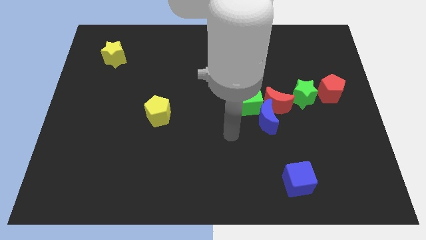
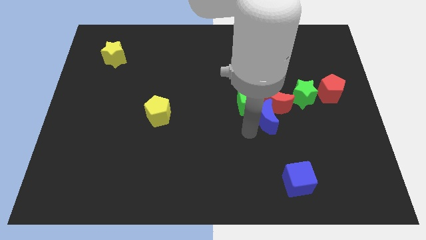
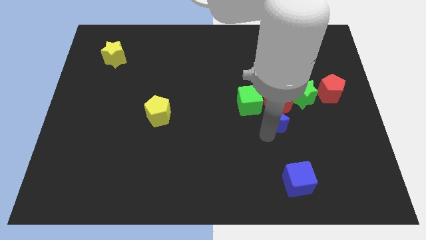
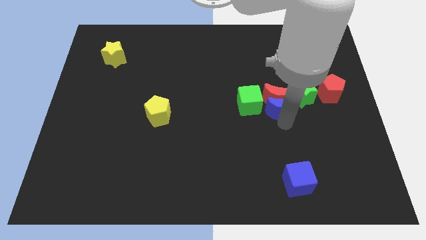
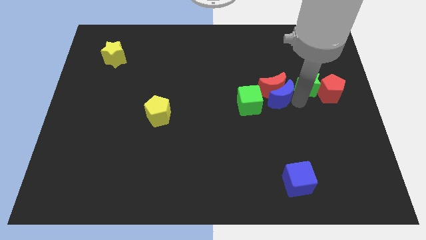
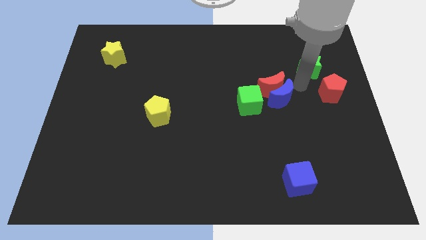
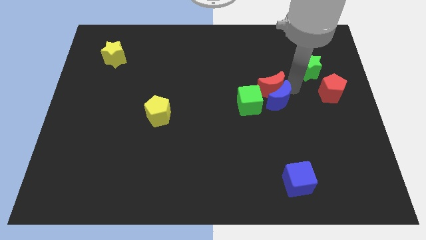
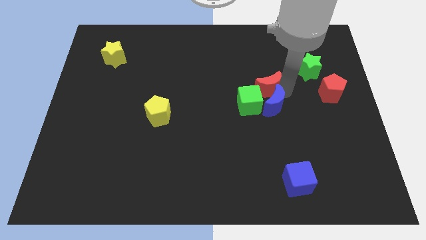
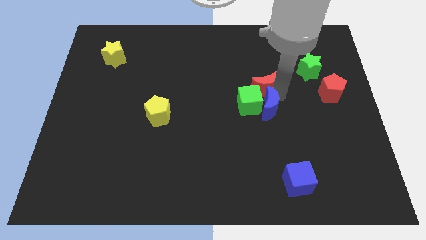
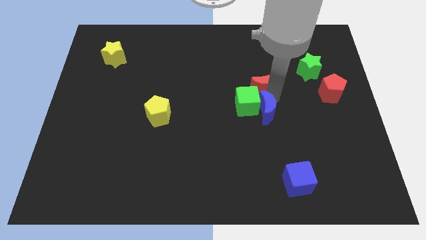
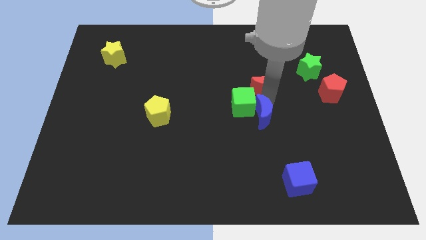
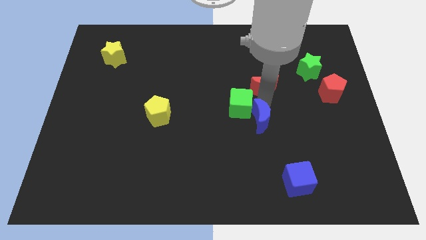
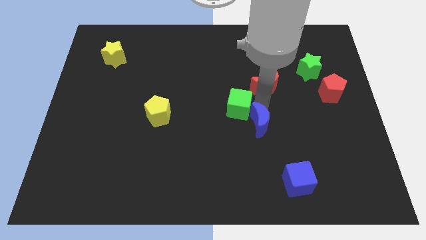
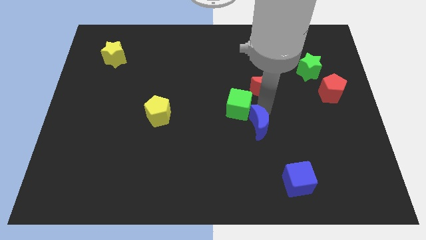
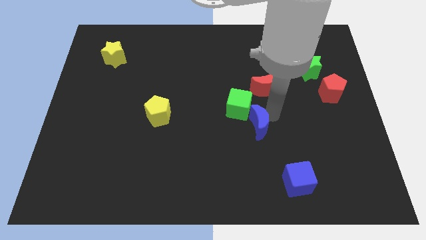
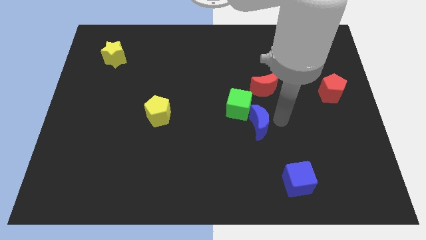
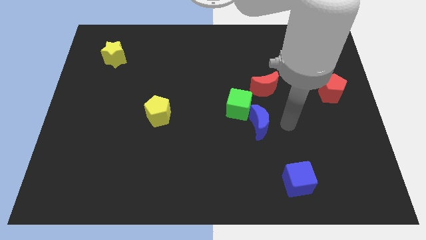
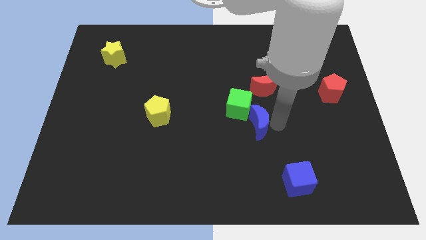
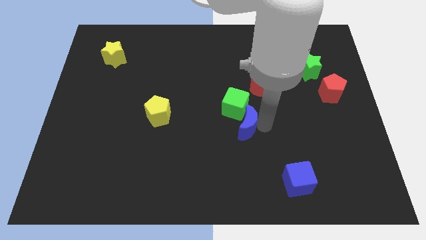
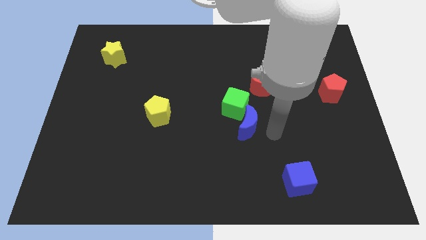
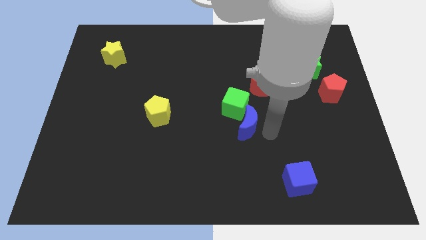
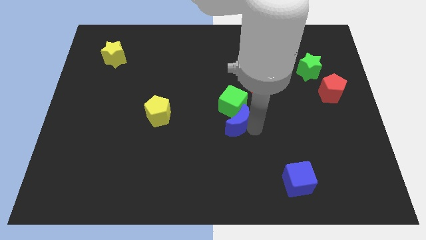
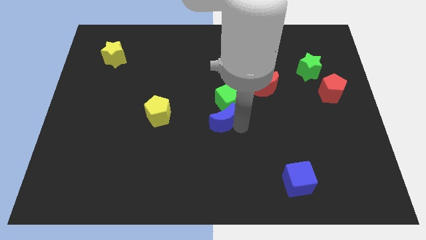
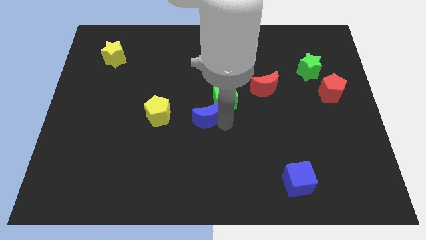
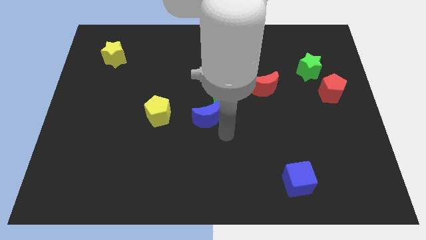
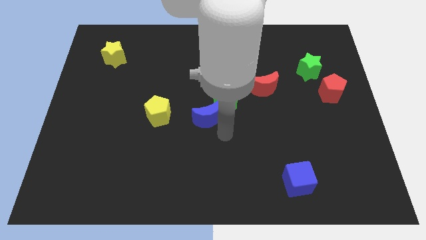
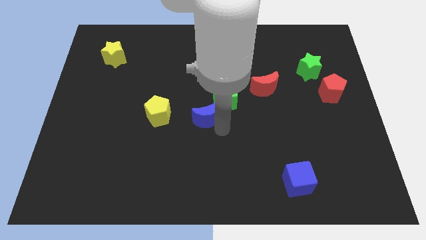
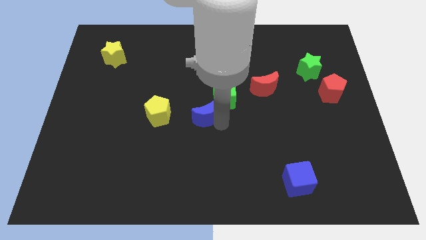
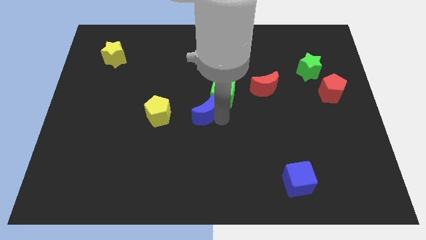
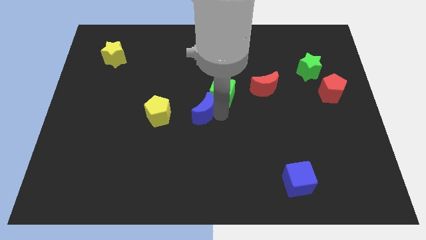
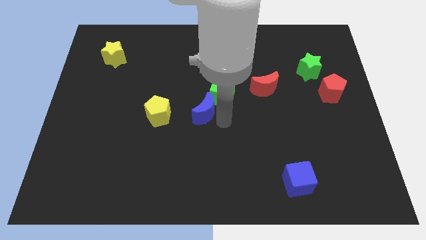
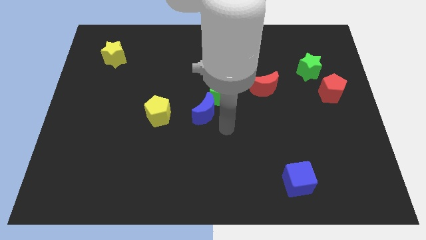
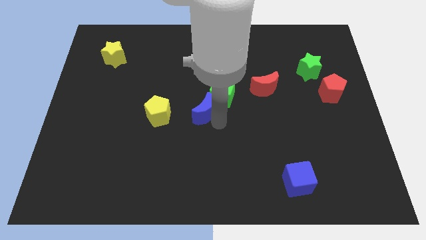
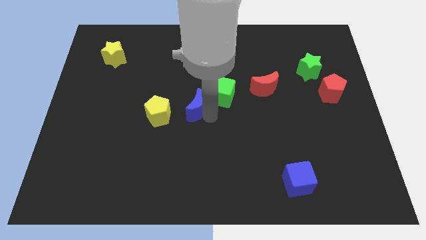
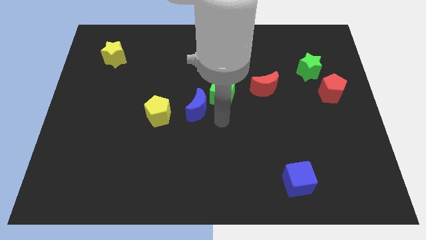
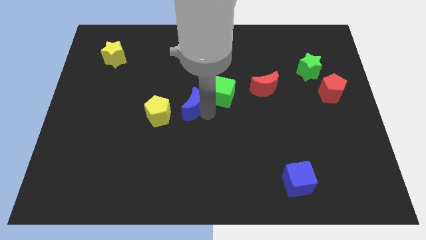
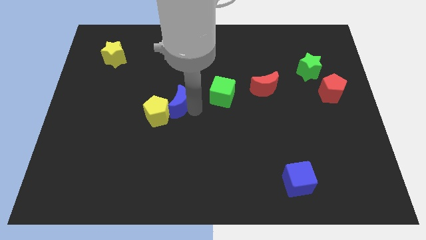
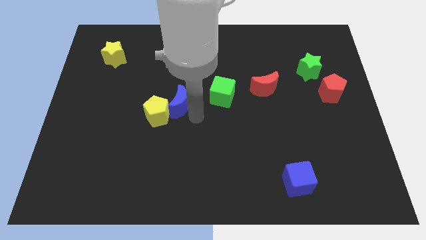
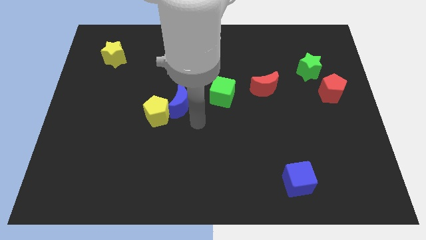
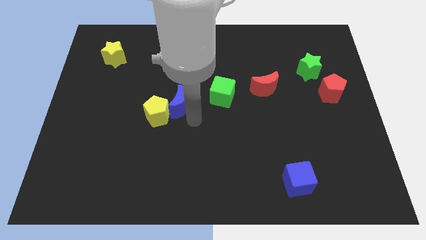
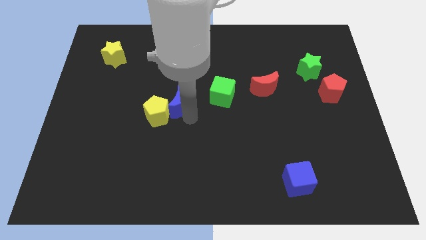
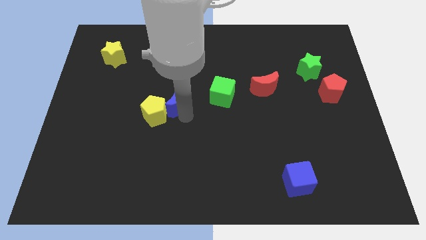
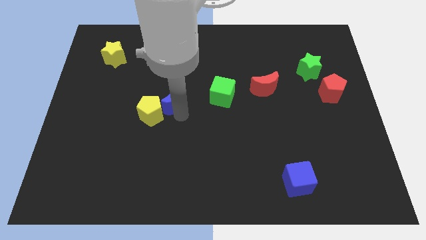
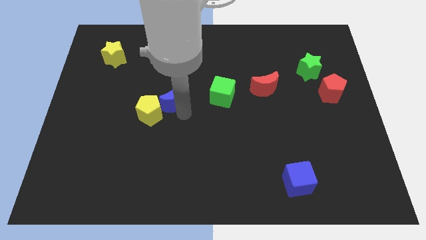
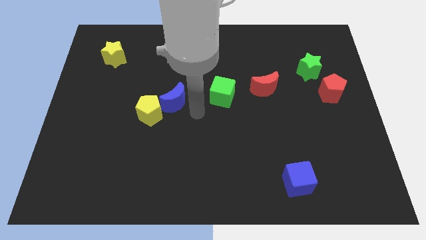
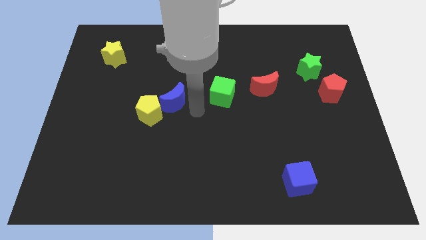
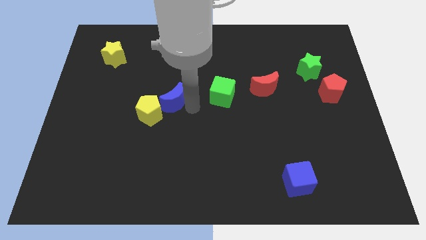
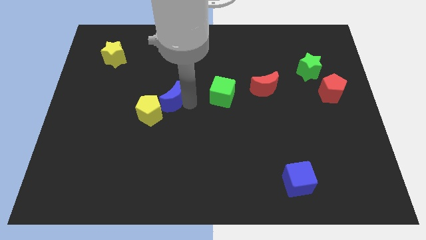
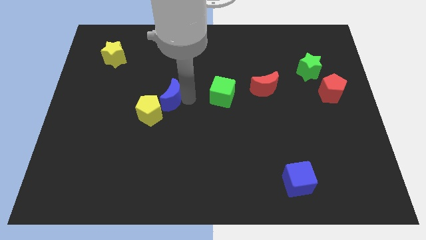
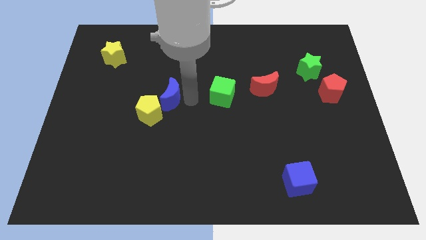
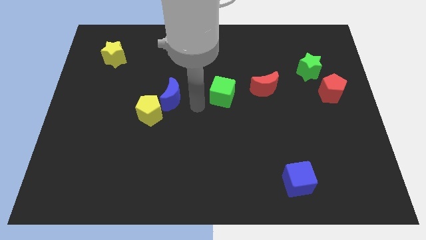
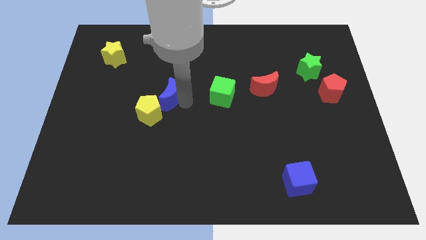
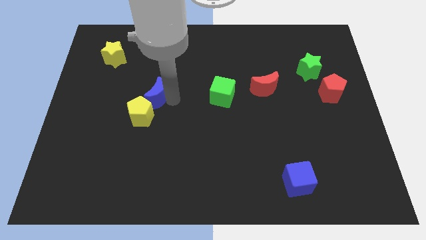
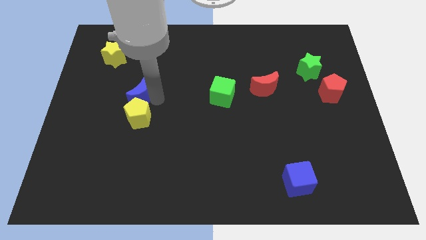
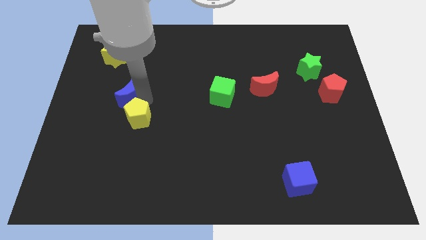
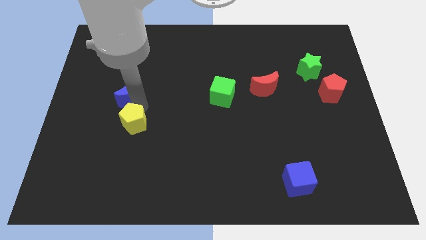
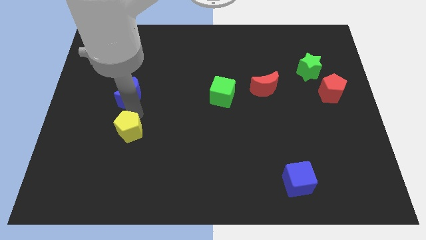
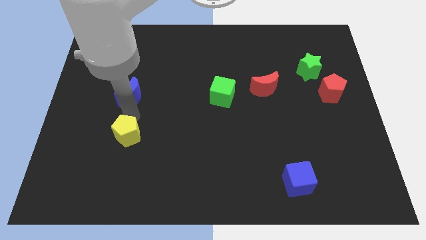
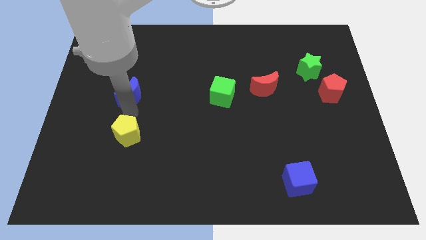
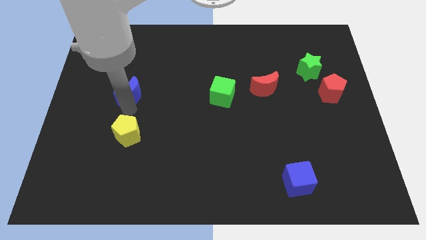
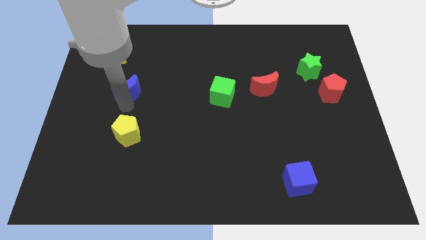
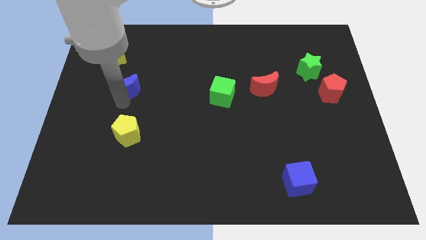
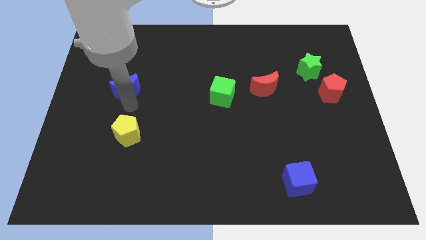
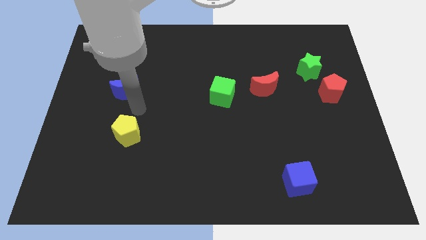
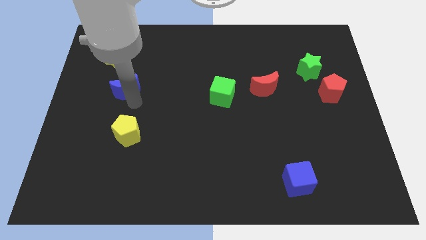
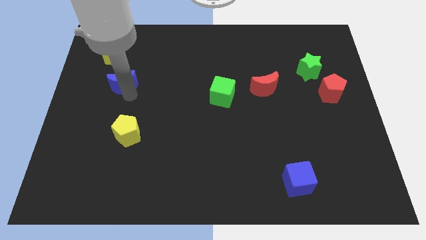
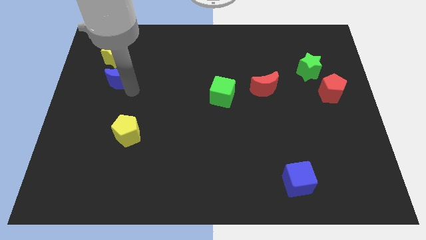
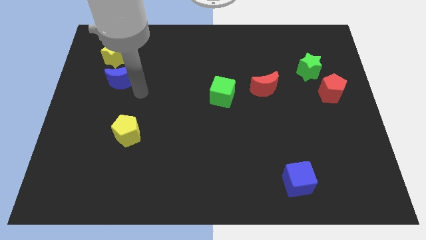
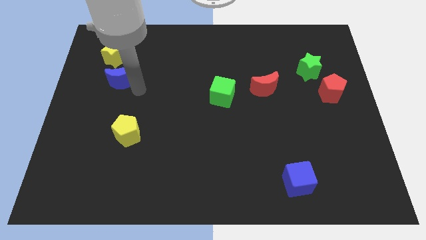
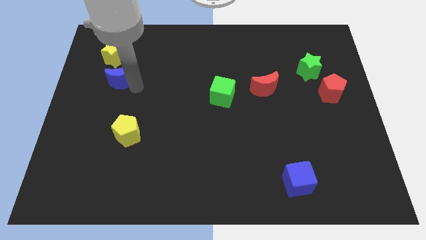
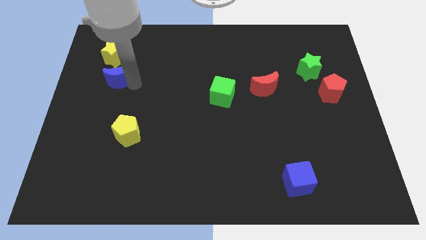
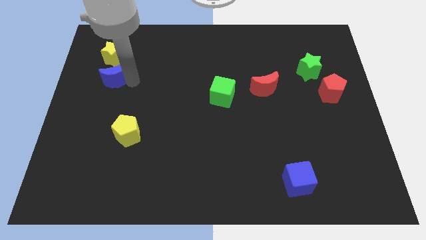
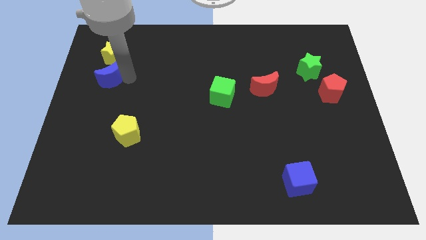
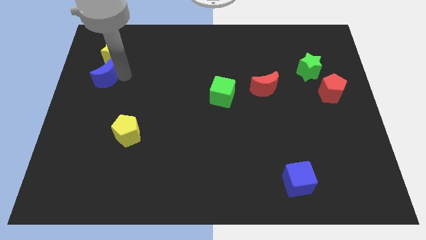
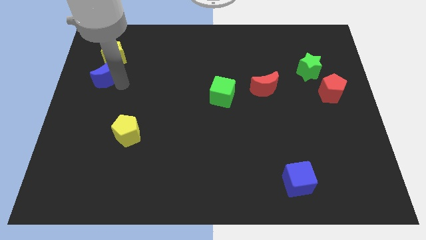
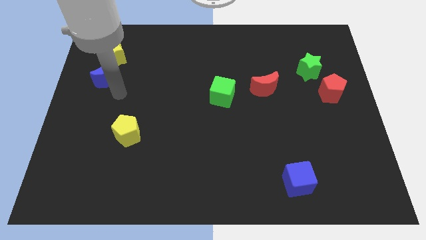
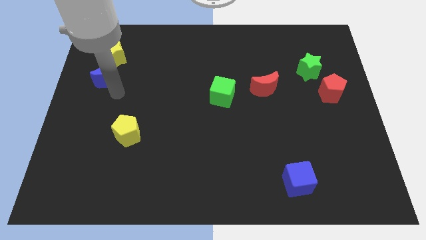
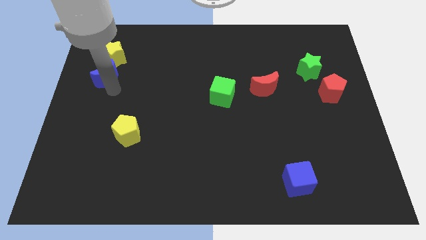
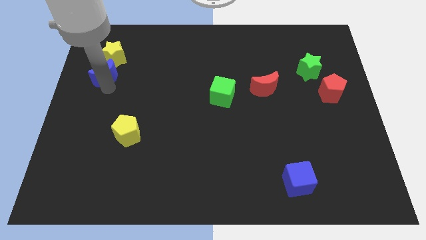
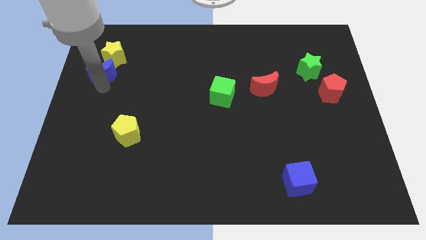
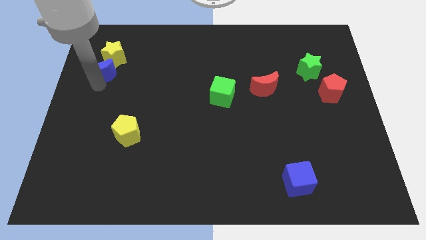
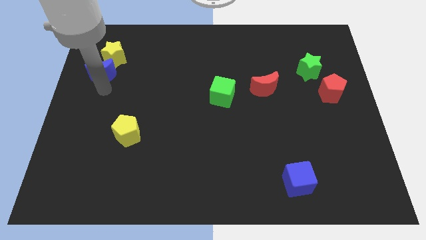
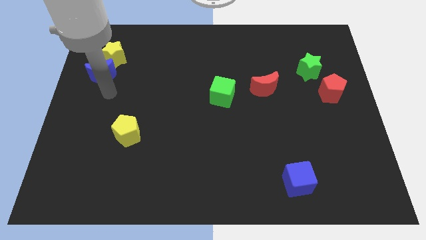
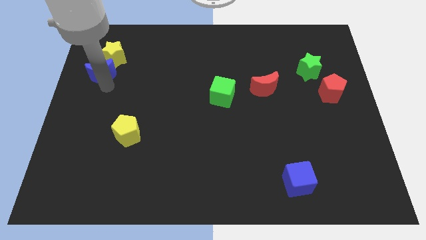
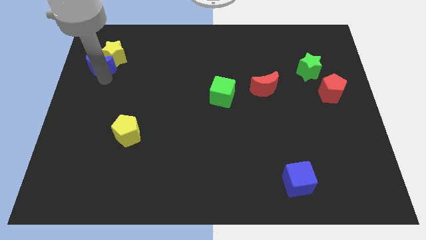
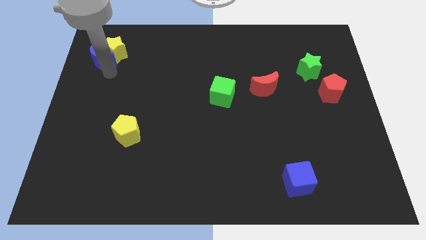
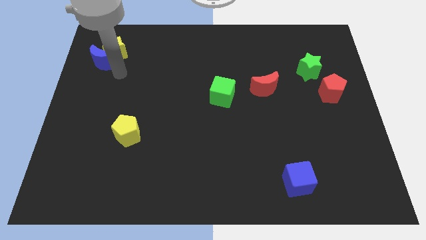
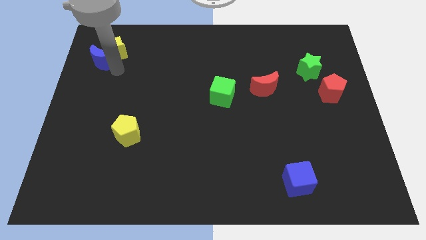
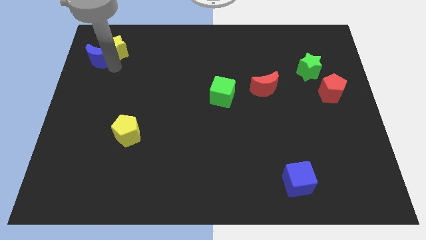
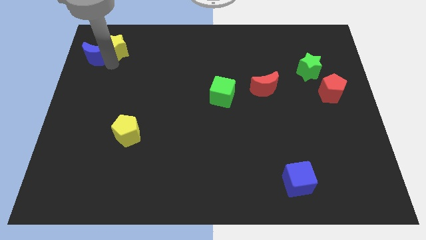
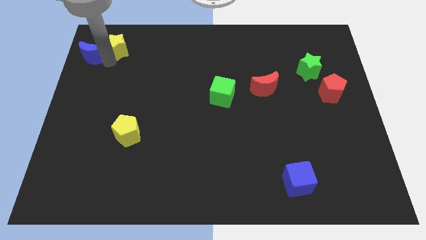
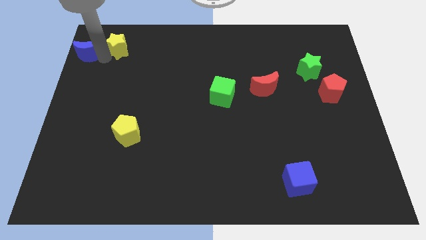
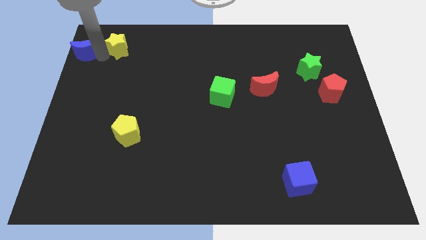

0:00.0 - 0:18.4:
slide the blue moon to the upper left corner
